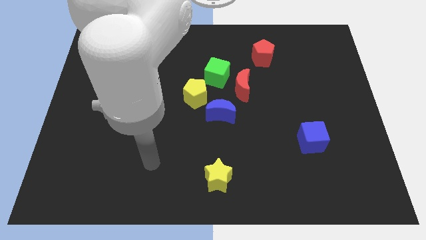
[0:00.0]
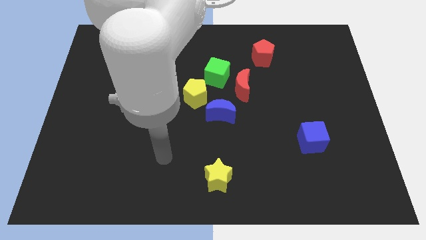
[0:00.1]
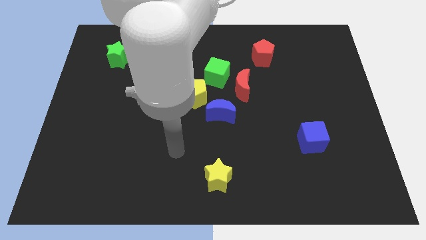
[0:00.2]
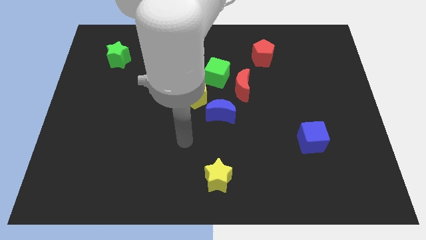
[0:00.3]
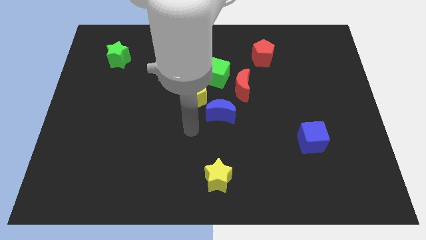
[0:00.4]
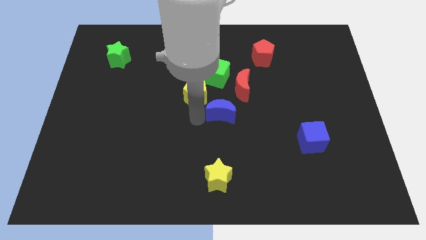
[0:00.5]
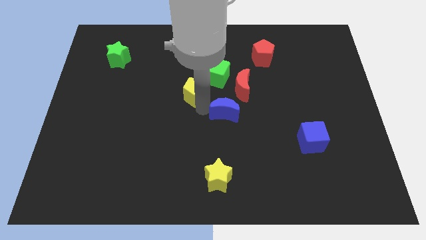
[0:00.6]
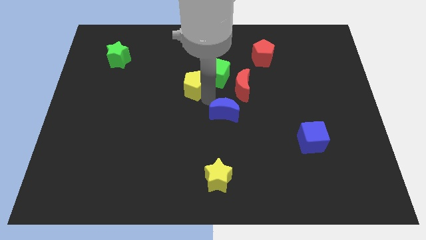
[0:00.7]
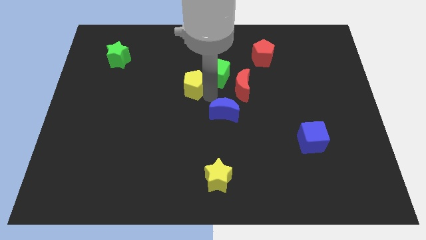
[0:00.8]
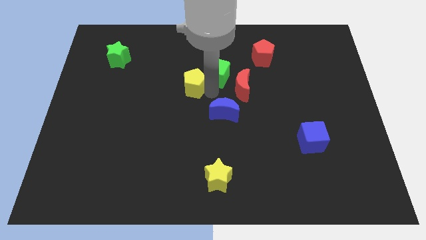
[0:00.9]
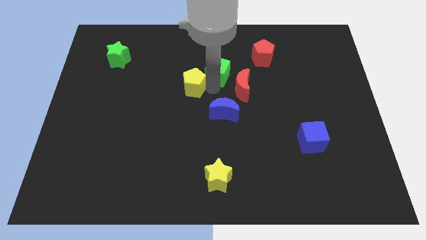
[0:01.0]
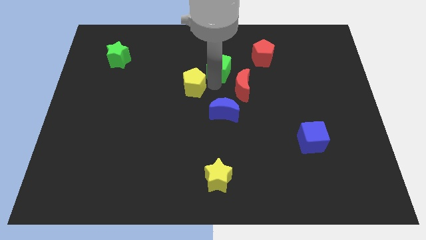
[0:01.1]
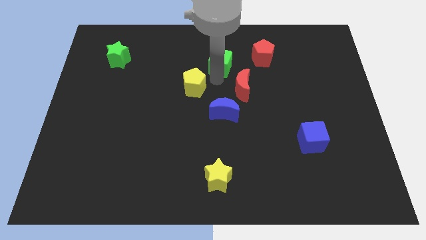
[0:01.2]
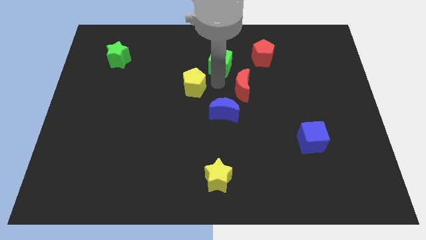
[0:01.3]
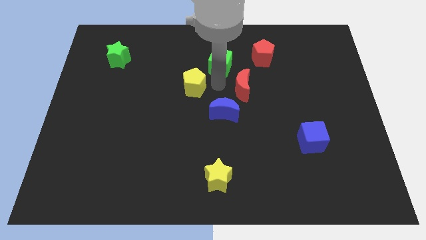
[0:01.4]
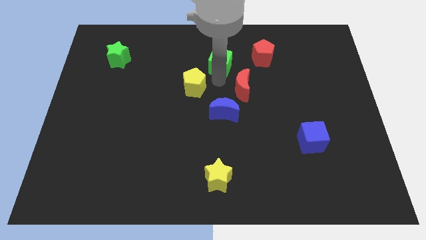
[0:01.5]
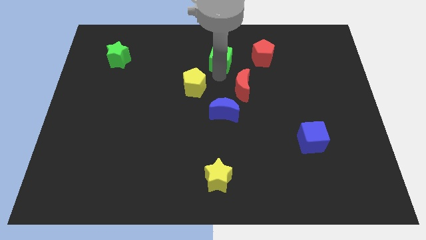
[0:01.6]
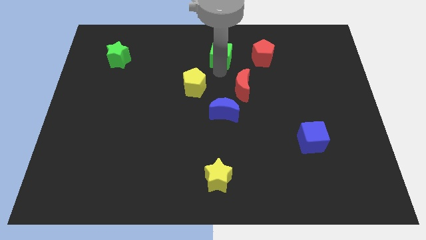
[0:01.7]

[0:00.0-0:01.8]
move the green cube away from the red moon and yellow pentagon

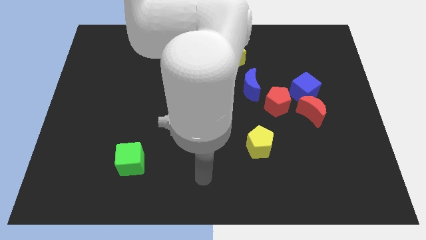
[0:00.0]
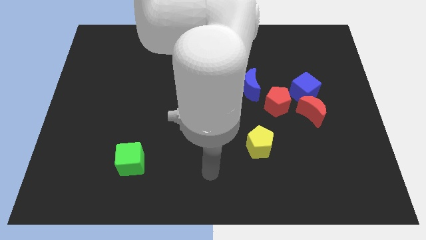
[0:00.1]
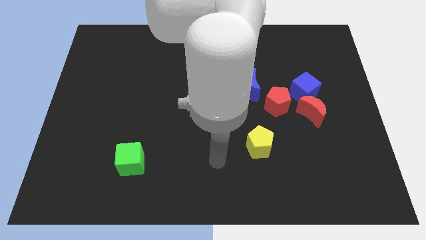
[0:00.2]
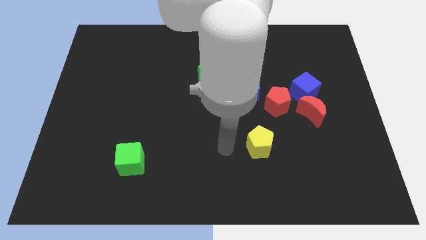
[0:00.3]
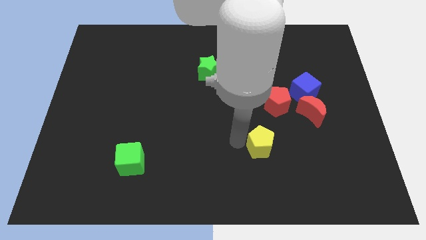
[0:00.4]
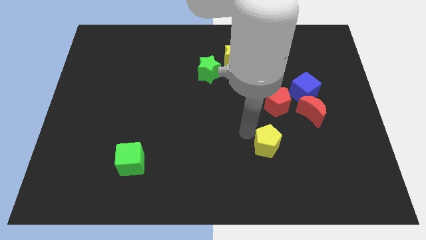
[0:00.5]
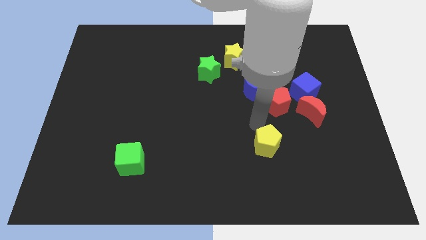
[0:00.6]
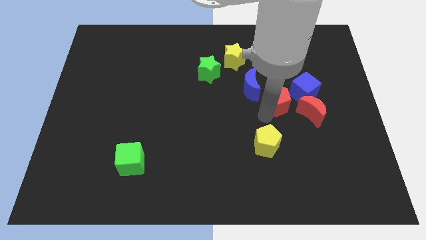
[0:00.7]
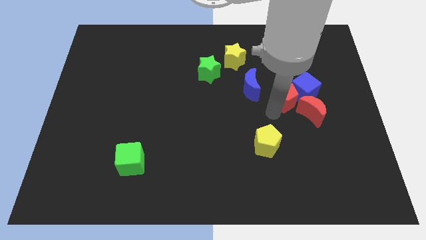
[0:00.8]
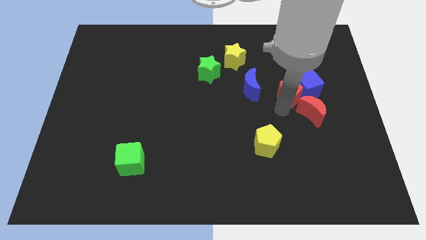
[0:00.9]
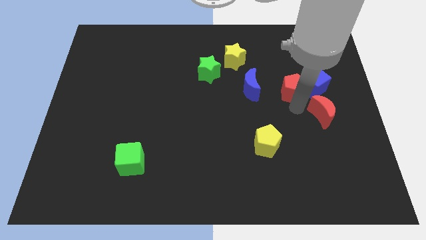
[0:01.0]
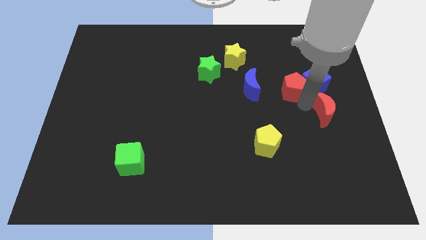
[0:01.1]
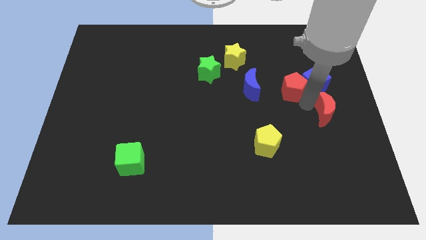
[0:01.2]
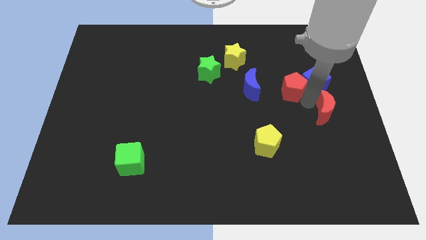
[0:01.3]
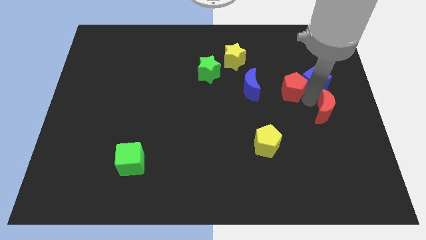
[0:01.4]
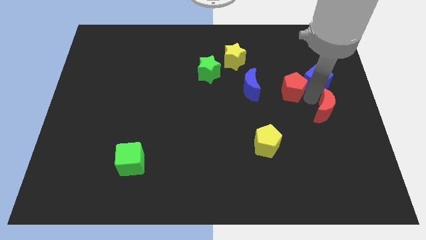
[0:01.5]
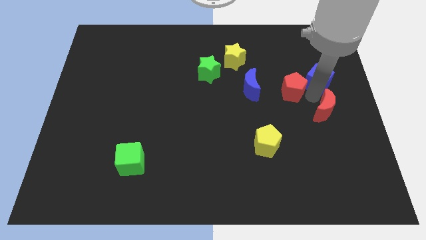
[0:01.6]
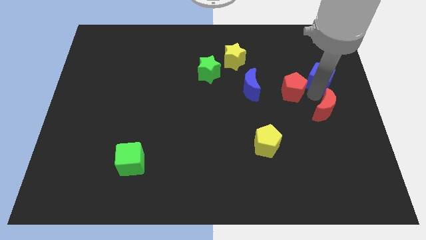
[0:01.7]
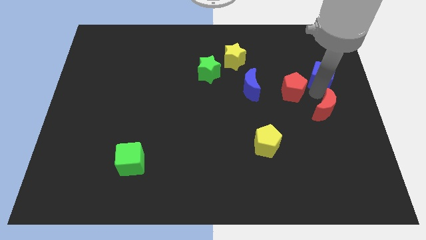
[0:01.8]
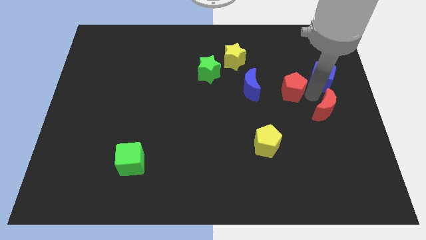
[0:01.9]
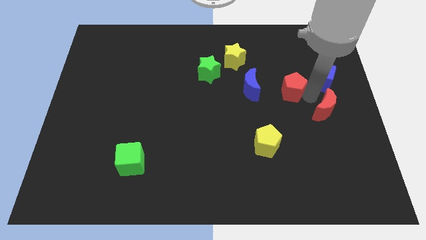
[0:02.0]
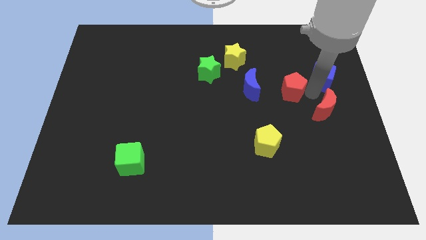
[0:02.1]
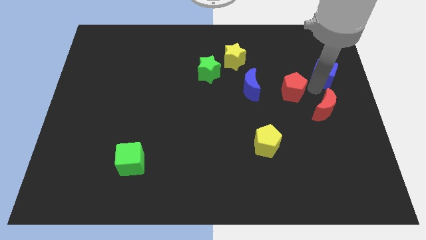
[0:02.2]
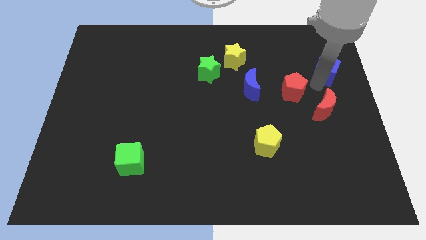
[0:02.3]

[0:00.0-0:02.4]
move the blue cube away from the red moon and red pentagon

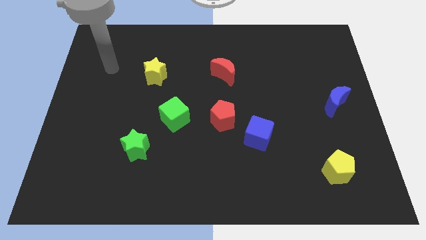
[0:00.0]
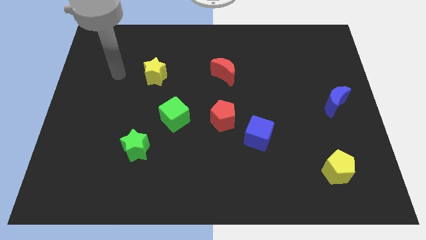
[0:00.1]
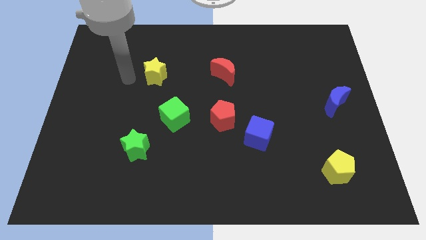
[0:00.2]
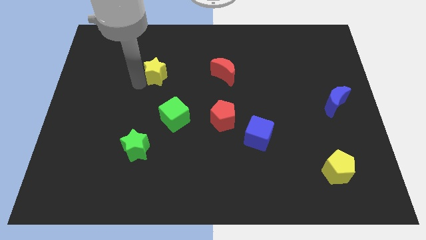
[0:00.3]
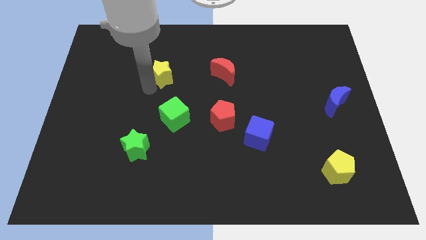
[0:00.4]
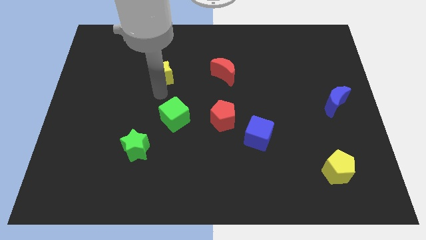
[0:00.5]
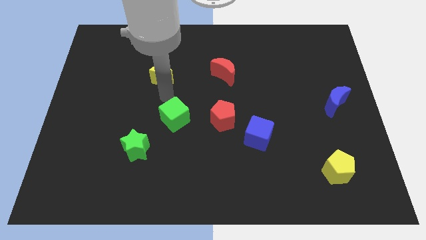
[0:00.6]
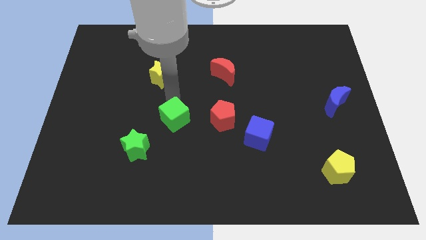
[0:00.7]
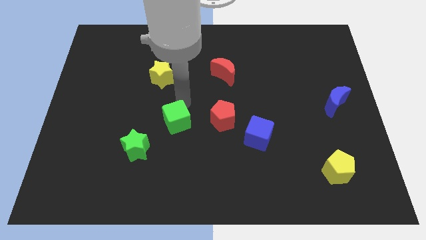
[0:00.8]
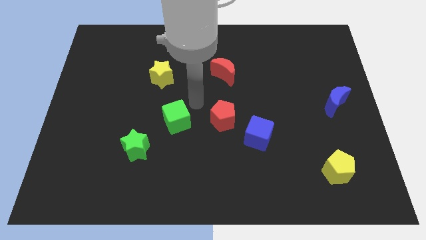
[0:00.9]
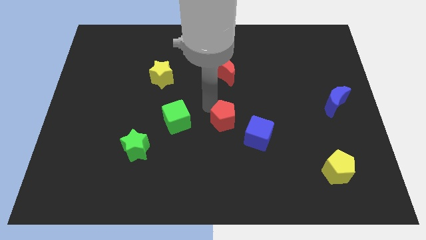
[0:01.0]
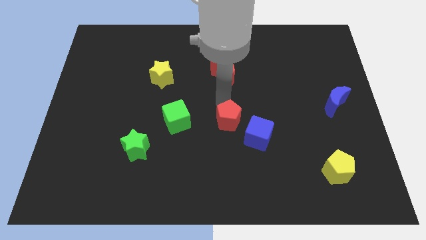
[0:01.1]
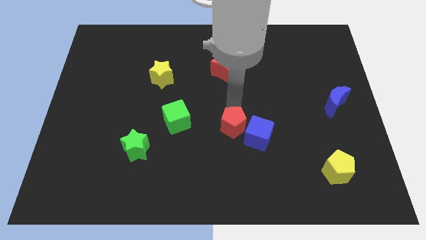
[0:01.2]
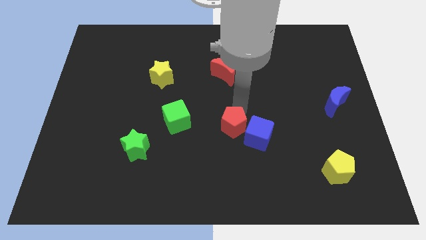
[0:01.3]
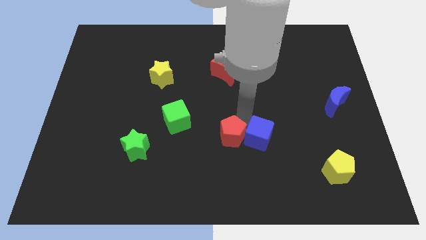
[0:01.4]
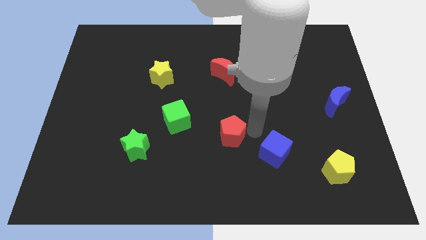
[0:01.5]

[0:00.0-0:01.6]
pull the red pentagon apart from the blue cube

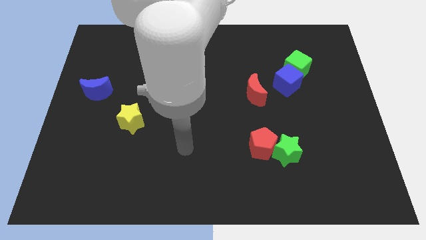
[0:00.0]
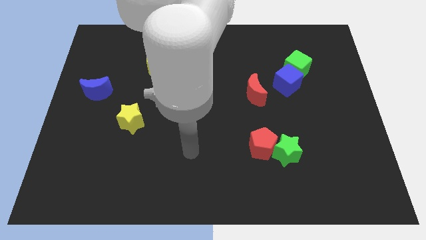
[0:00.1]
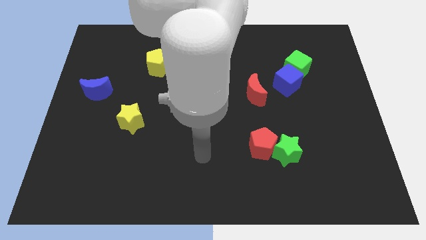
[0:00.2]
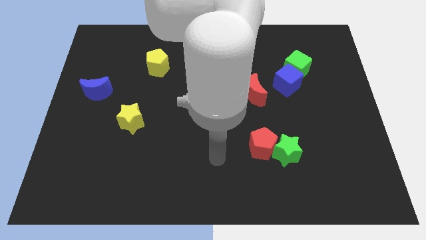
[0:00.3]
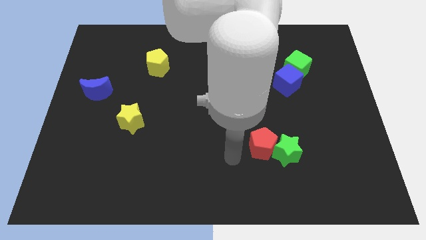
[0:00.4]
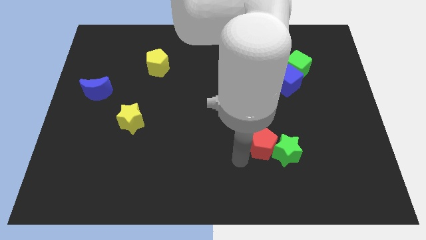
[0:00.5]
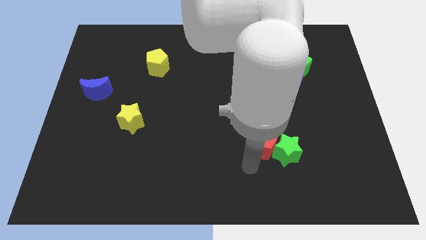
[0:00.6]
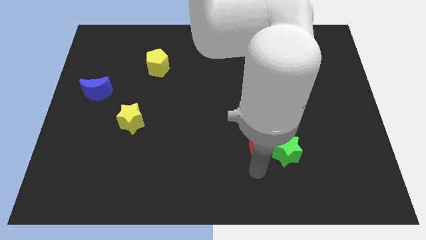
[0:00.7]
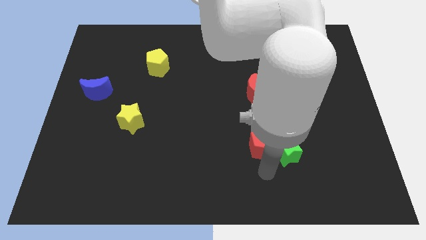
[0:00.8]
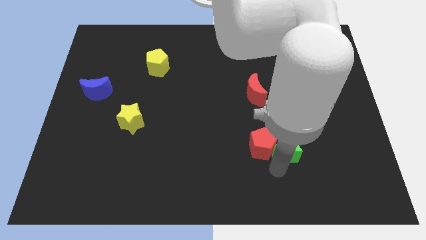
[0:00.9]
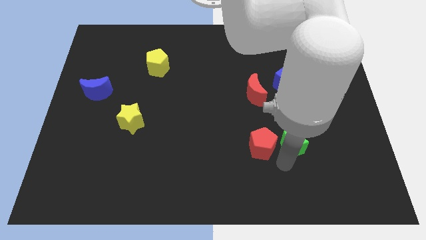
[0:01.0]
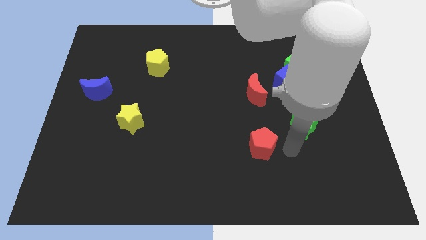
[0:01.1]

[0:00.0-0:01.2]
move the red pentagon away from the green star

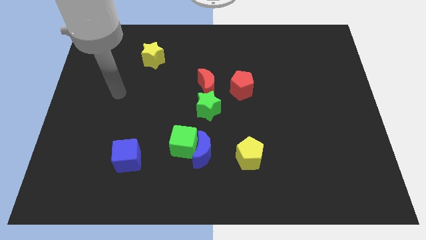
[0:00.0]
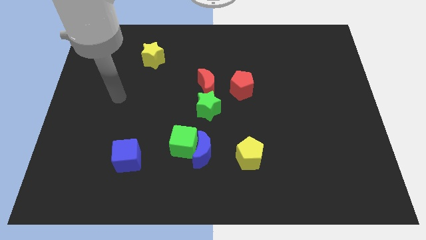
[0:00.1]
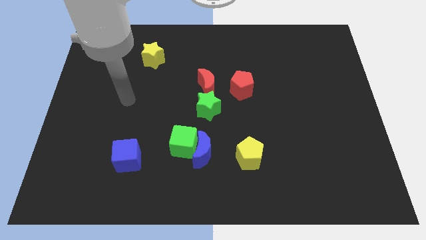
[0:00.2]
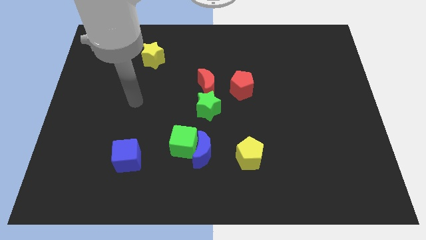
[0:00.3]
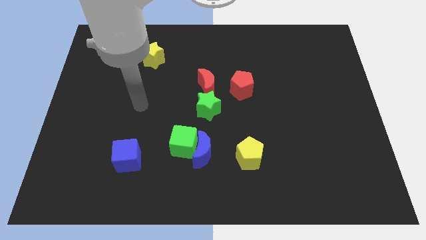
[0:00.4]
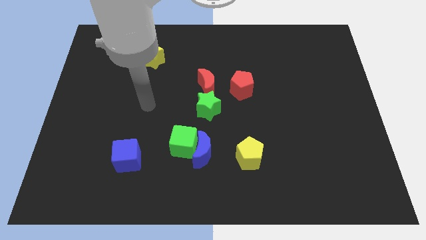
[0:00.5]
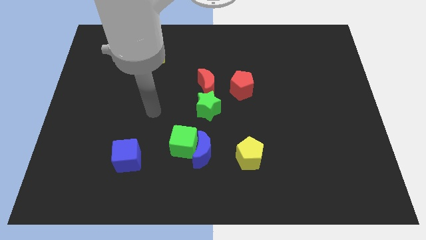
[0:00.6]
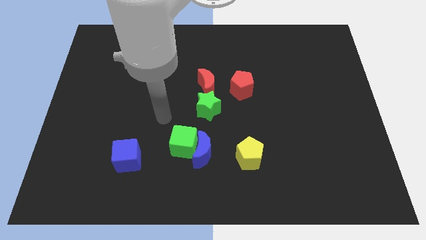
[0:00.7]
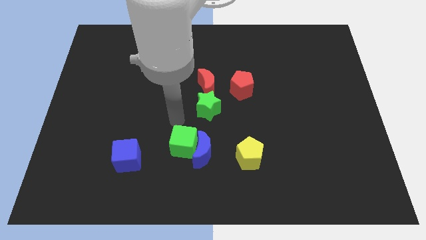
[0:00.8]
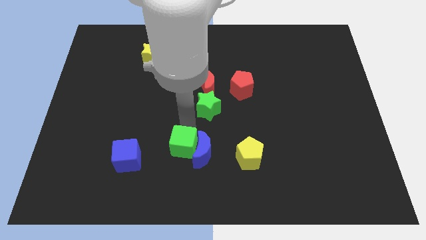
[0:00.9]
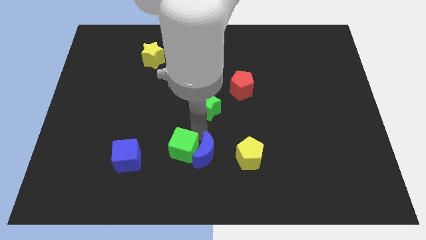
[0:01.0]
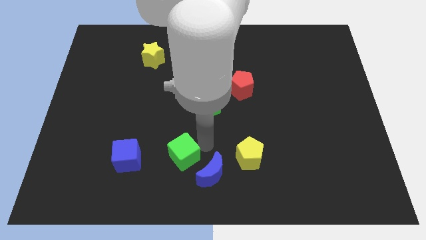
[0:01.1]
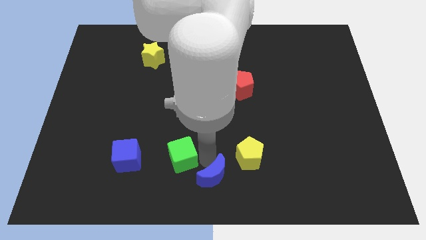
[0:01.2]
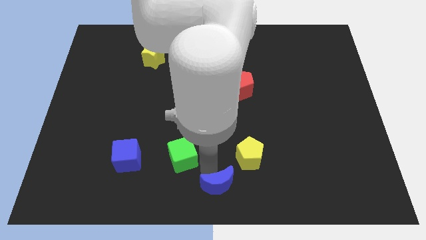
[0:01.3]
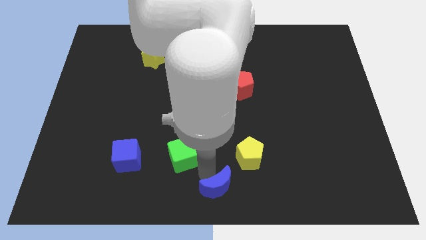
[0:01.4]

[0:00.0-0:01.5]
separate the green cube from the blue moon

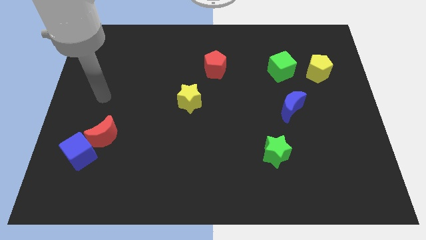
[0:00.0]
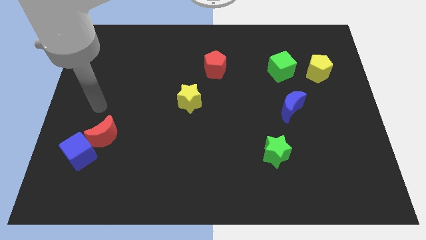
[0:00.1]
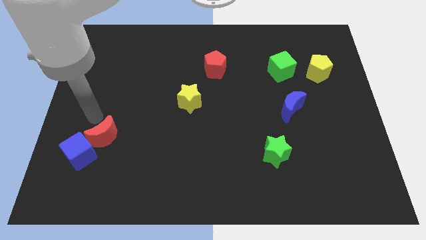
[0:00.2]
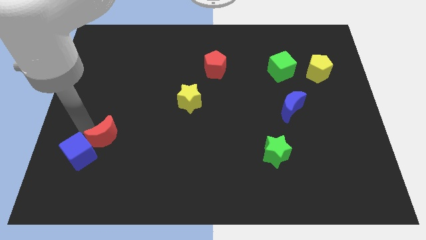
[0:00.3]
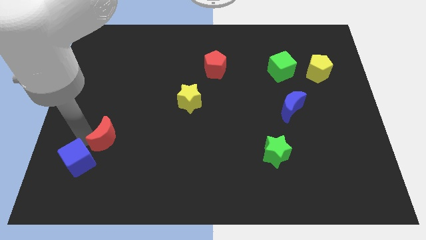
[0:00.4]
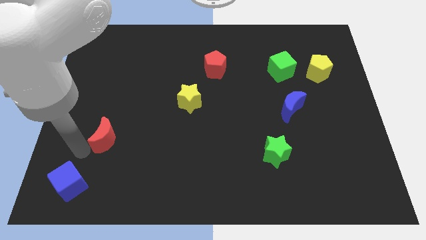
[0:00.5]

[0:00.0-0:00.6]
separate the red moon from the blue cube

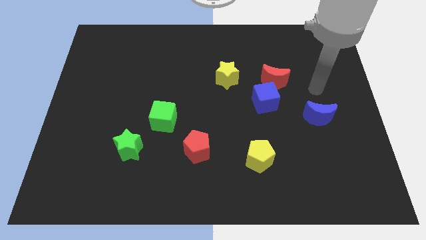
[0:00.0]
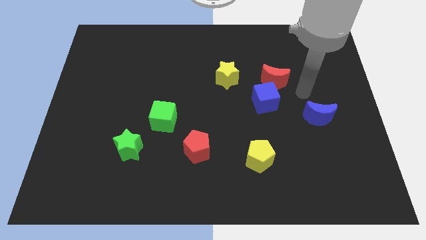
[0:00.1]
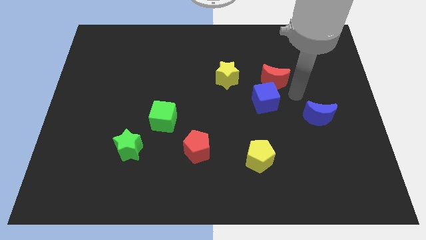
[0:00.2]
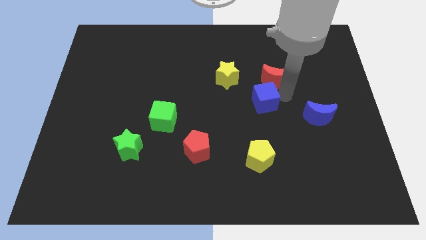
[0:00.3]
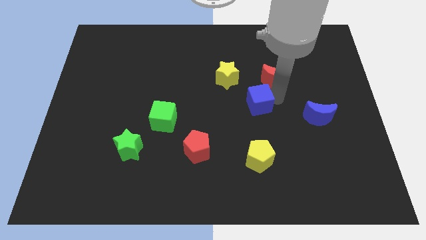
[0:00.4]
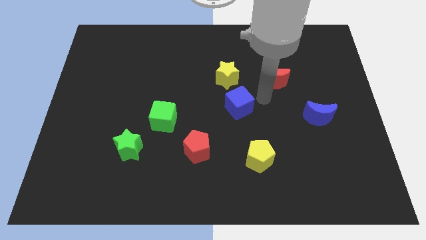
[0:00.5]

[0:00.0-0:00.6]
pull the red moon apart from the blue cube
